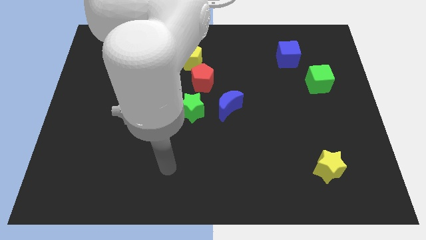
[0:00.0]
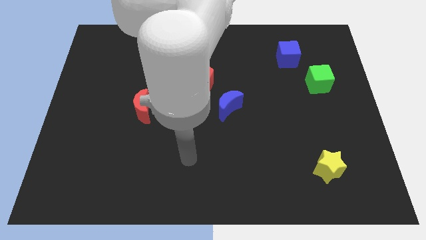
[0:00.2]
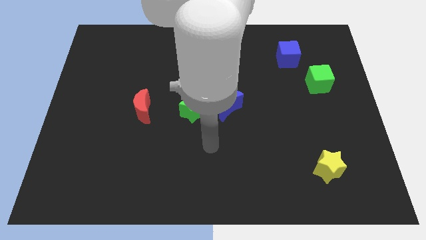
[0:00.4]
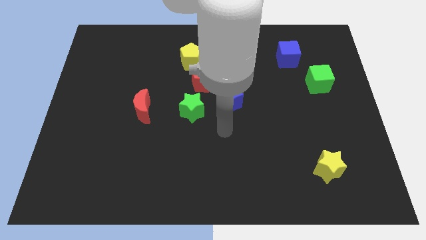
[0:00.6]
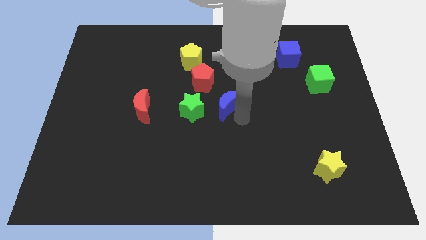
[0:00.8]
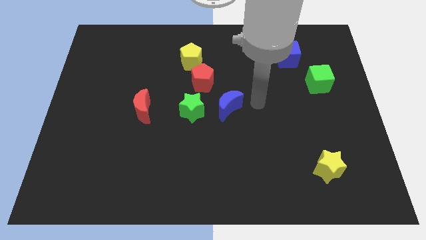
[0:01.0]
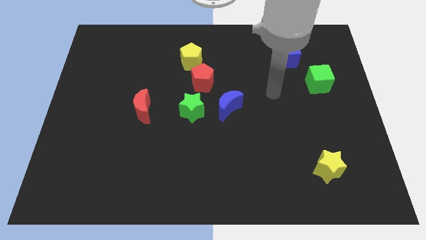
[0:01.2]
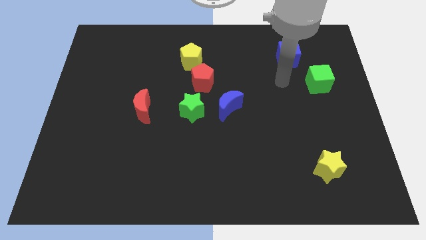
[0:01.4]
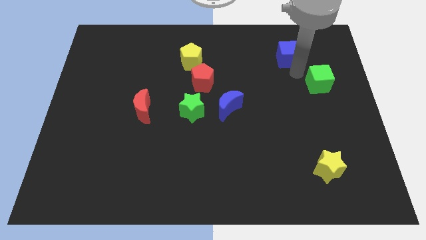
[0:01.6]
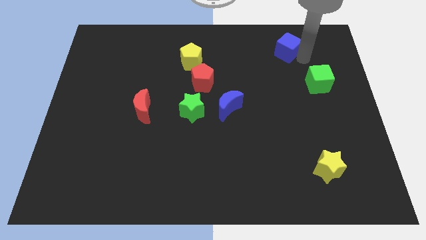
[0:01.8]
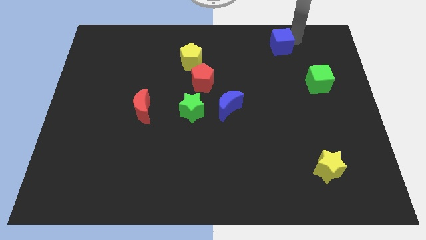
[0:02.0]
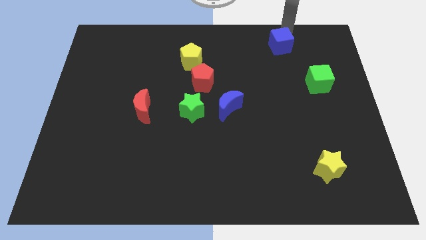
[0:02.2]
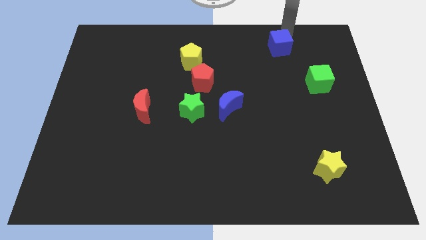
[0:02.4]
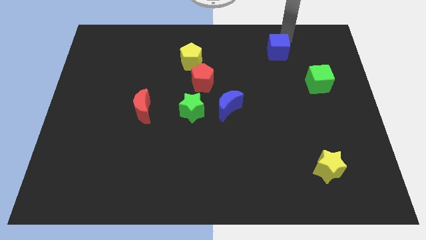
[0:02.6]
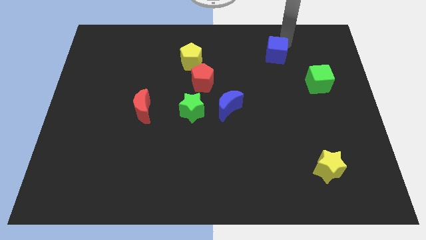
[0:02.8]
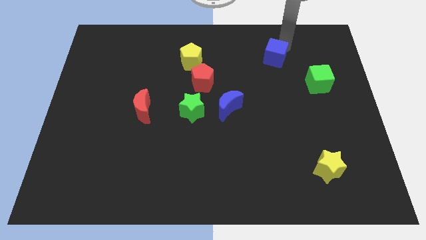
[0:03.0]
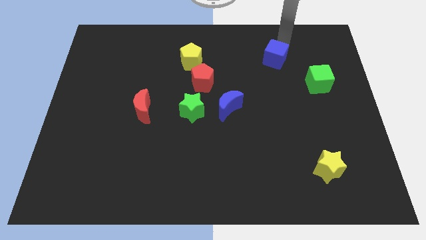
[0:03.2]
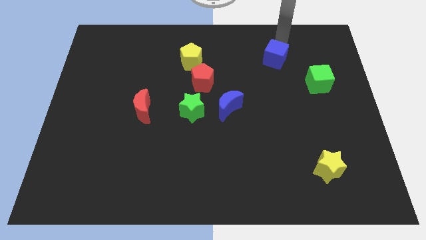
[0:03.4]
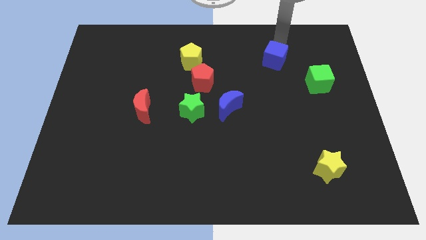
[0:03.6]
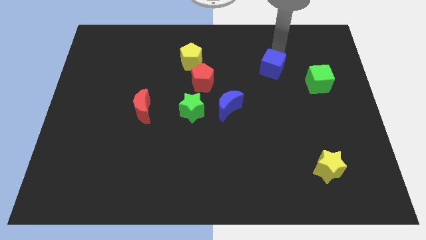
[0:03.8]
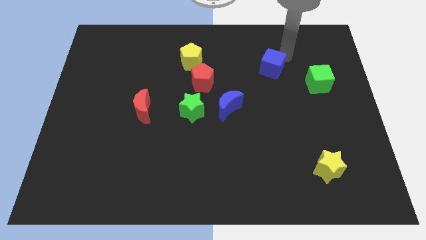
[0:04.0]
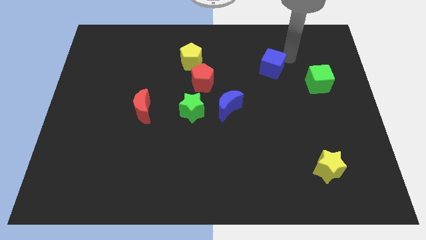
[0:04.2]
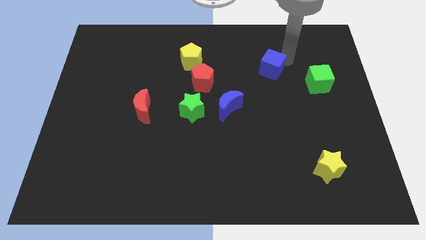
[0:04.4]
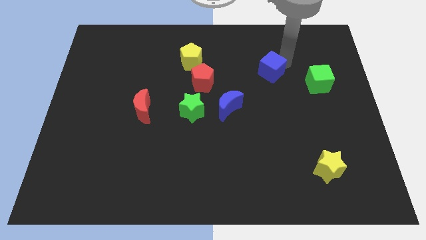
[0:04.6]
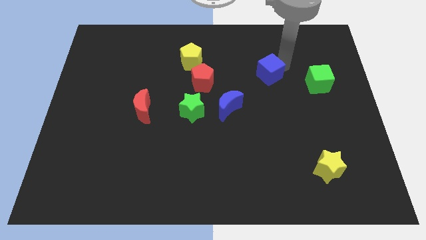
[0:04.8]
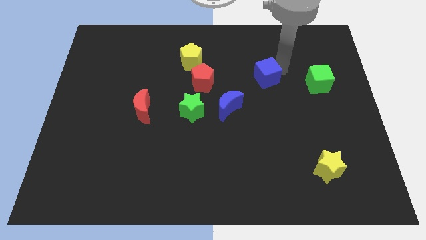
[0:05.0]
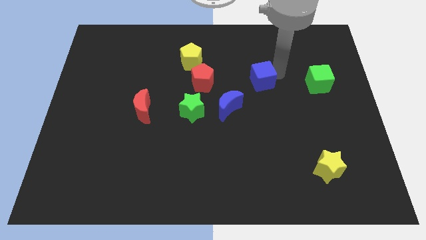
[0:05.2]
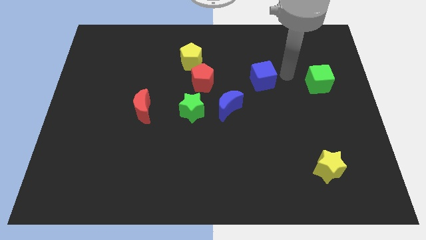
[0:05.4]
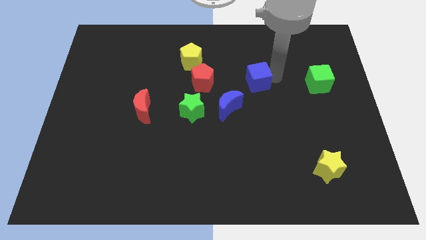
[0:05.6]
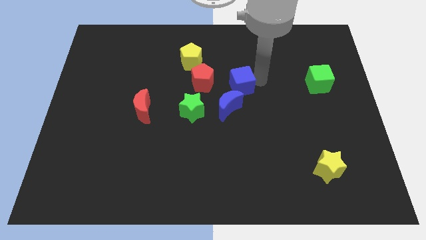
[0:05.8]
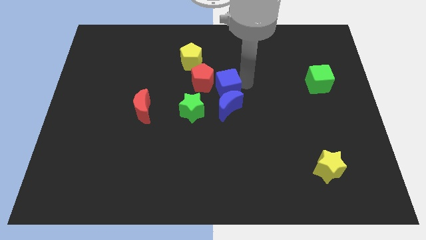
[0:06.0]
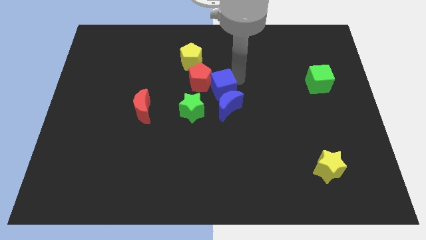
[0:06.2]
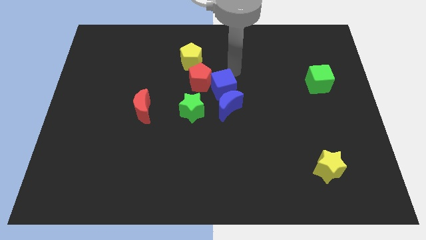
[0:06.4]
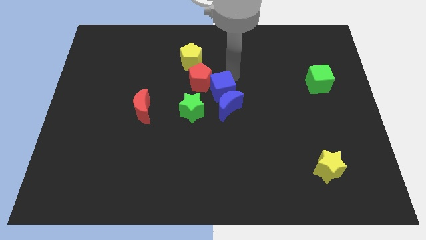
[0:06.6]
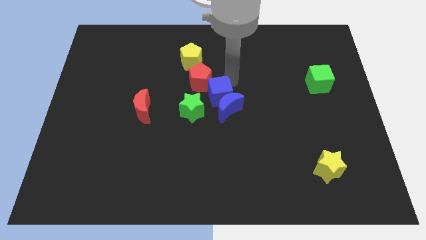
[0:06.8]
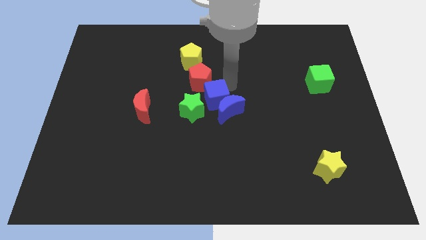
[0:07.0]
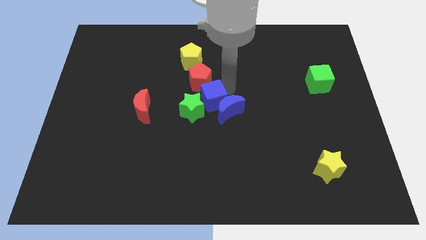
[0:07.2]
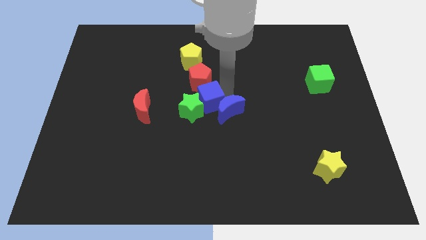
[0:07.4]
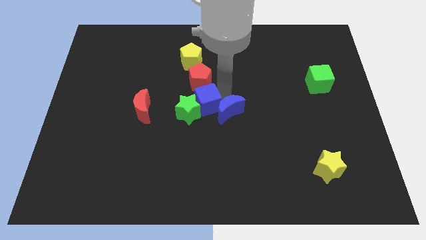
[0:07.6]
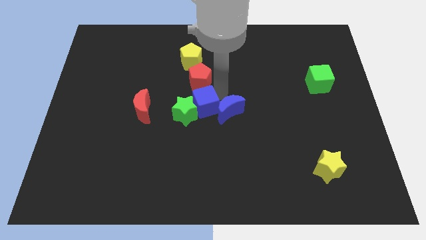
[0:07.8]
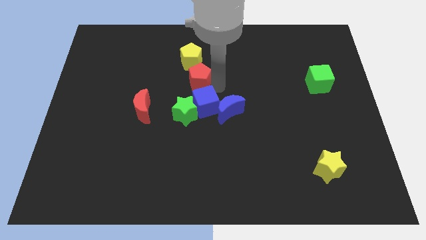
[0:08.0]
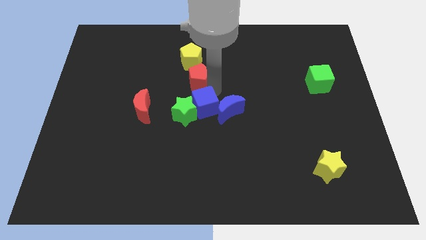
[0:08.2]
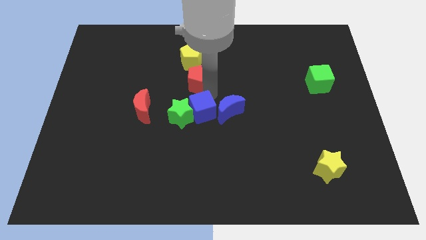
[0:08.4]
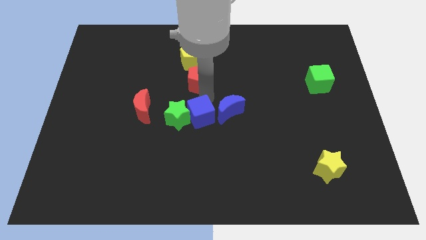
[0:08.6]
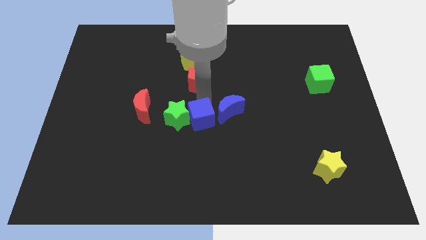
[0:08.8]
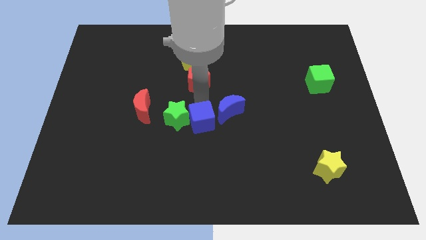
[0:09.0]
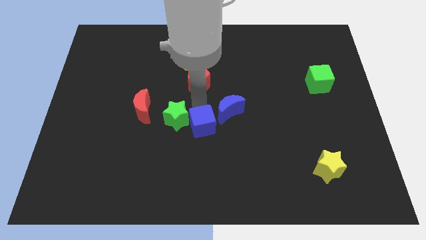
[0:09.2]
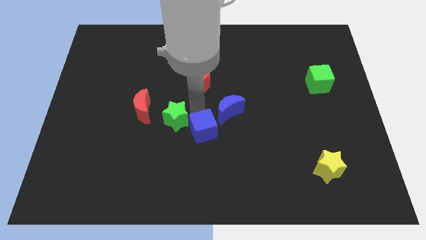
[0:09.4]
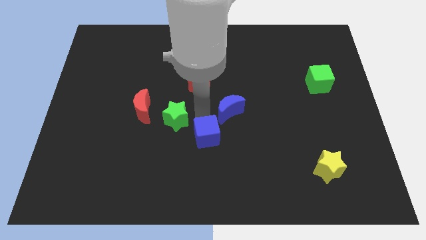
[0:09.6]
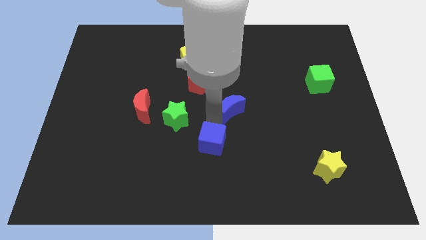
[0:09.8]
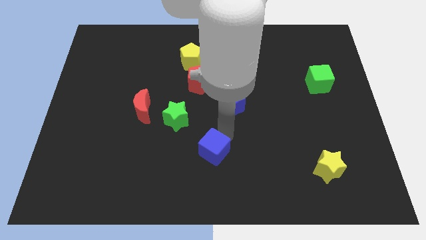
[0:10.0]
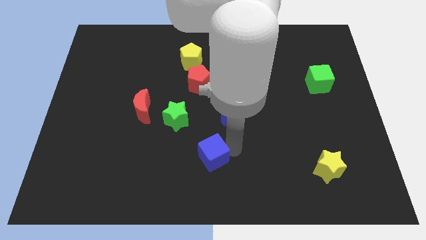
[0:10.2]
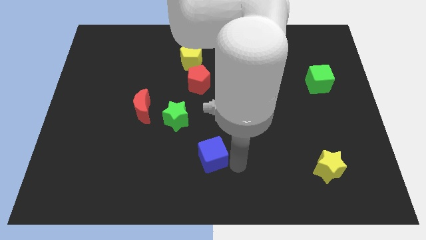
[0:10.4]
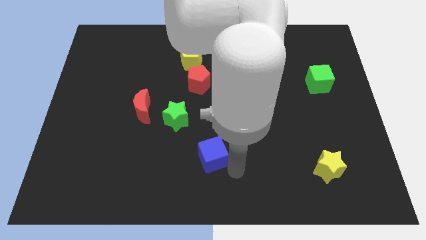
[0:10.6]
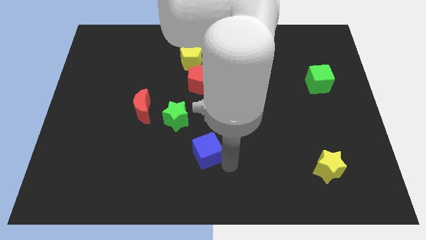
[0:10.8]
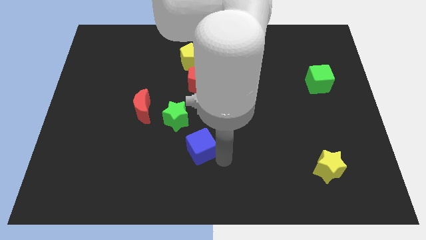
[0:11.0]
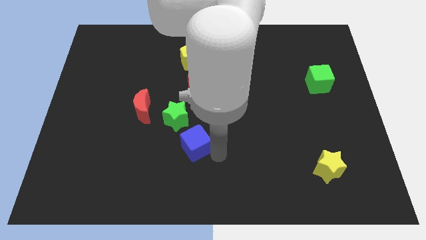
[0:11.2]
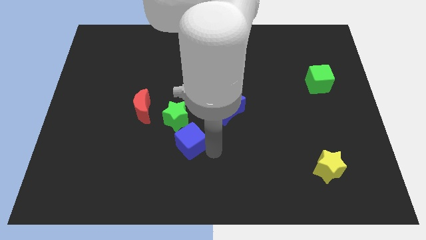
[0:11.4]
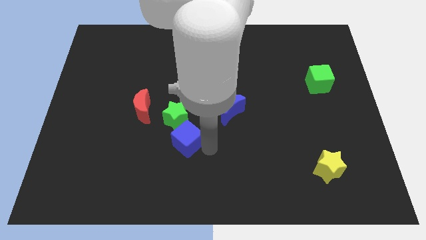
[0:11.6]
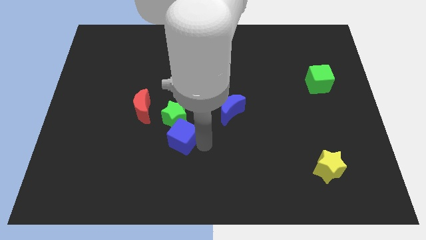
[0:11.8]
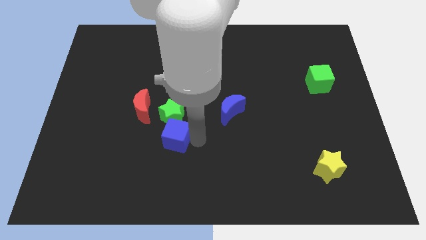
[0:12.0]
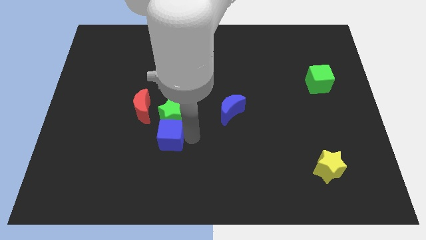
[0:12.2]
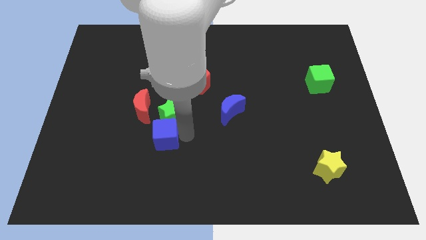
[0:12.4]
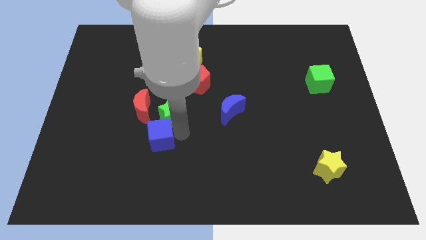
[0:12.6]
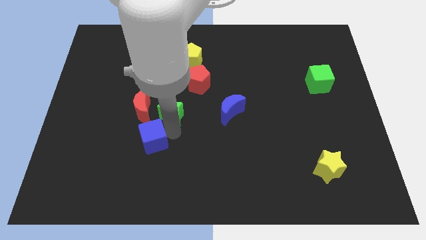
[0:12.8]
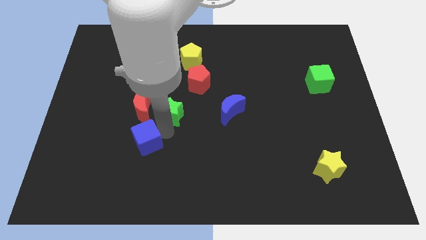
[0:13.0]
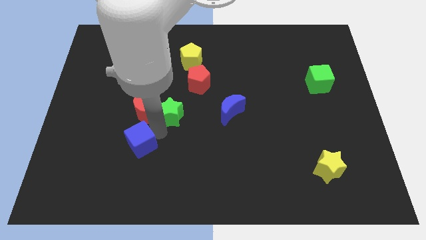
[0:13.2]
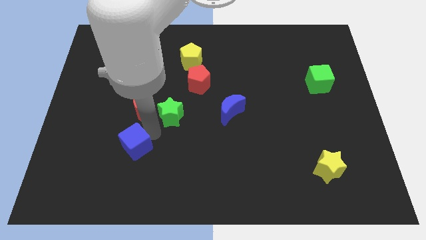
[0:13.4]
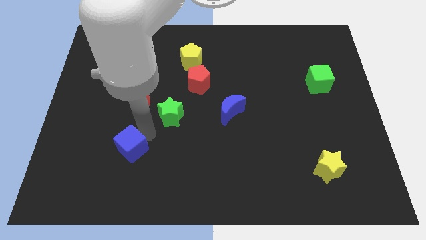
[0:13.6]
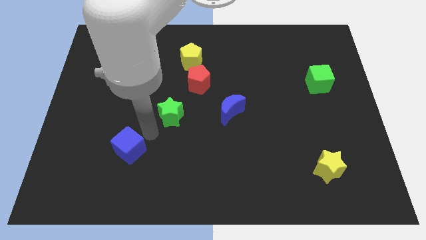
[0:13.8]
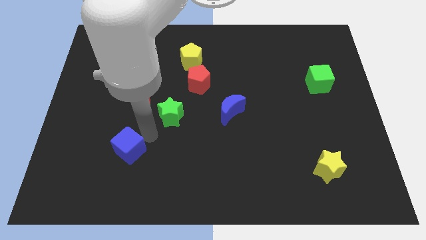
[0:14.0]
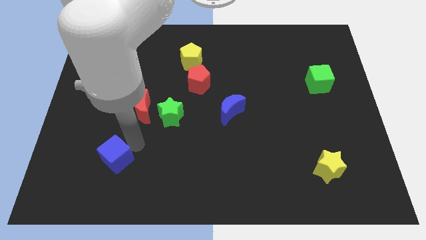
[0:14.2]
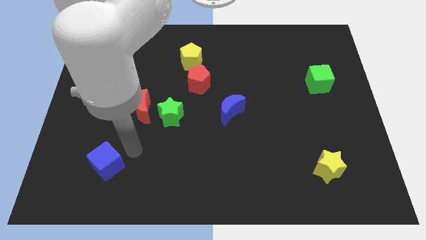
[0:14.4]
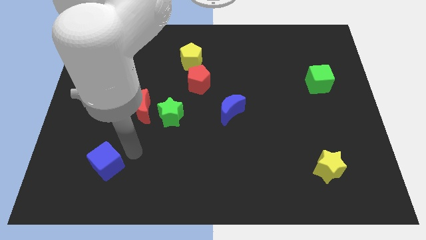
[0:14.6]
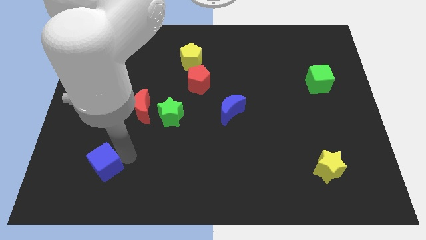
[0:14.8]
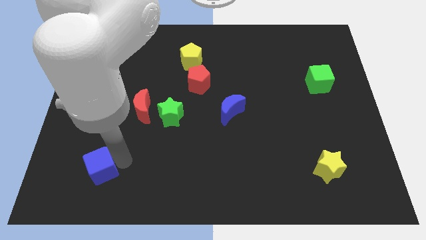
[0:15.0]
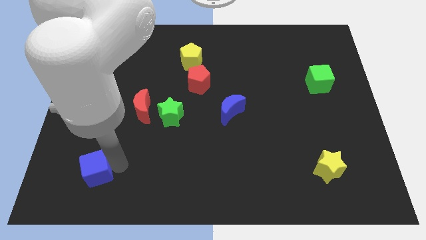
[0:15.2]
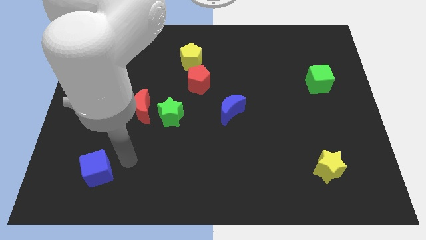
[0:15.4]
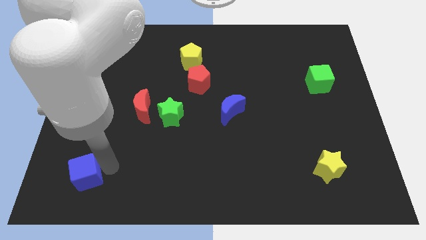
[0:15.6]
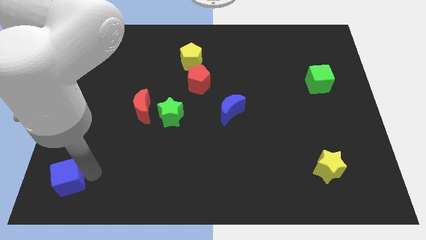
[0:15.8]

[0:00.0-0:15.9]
move the blue cube to the bottom left
